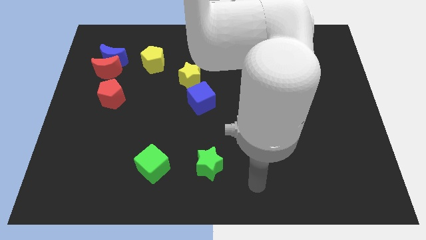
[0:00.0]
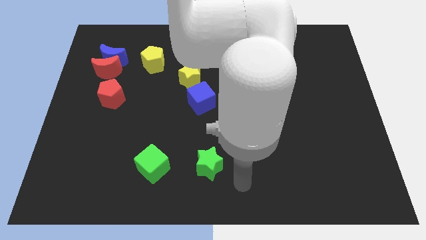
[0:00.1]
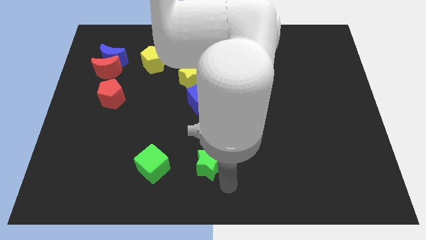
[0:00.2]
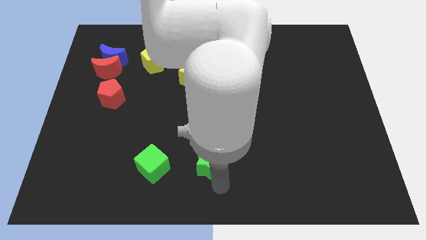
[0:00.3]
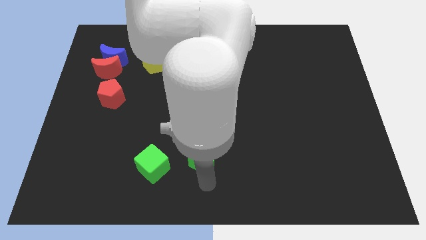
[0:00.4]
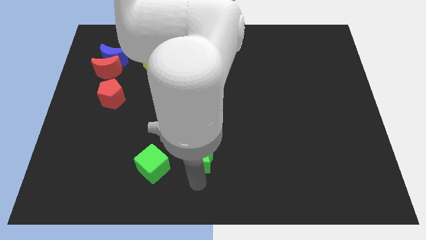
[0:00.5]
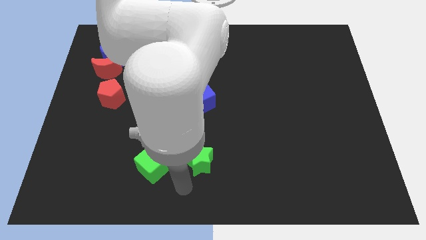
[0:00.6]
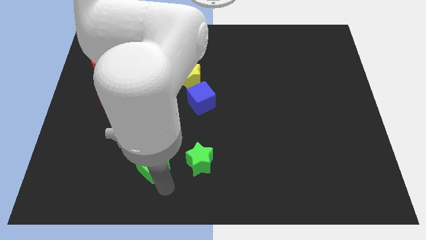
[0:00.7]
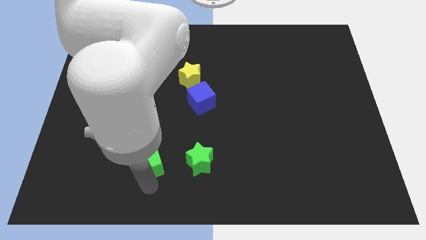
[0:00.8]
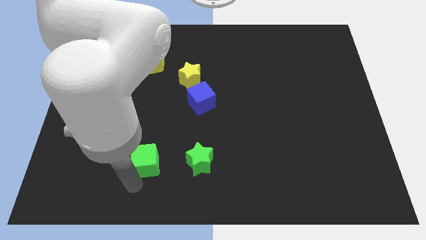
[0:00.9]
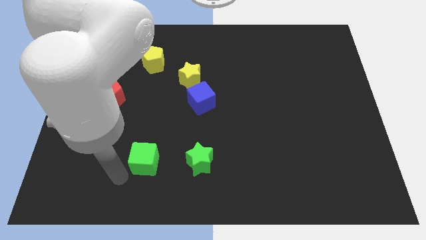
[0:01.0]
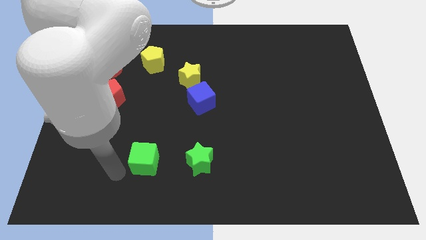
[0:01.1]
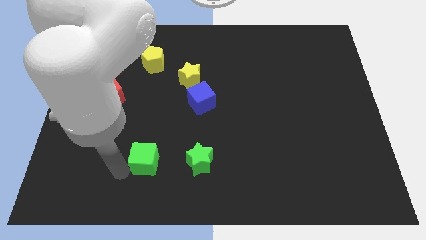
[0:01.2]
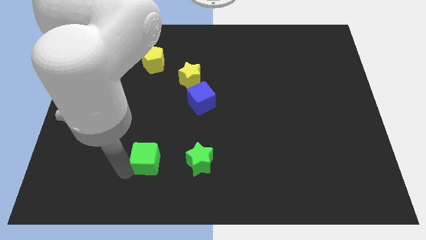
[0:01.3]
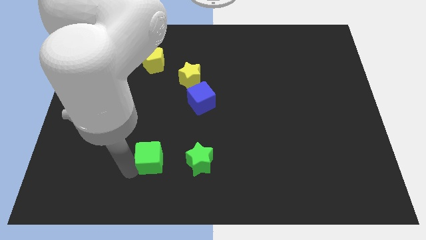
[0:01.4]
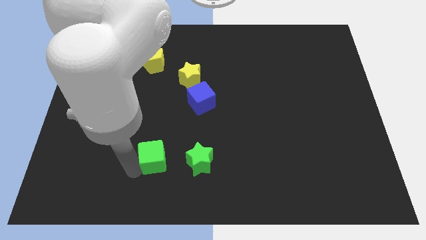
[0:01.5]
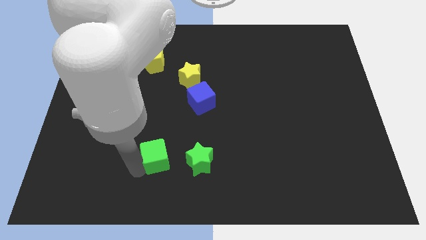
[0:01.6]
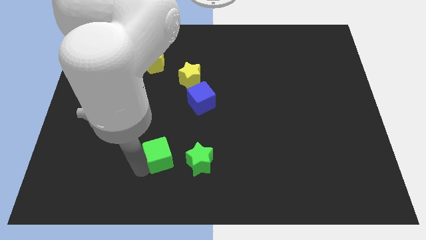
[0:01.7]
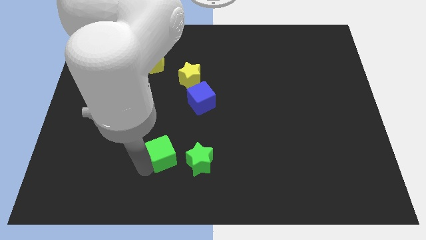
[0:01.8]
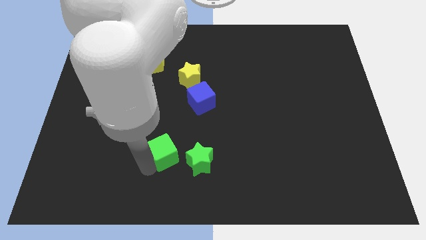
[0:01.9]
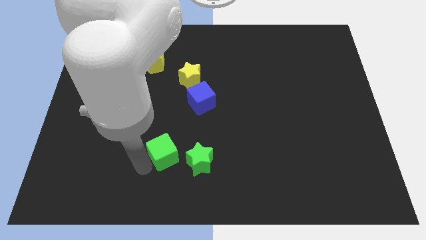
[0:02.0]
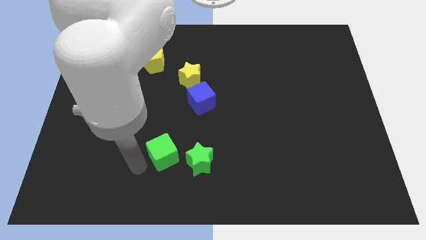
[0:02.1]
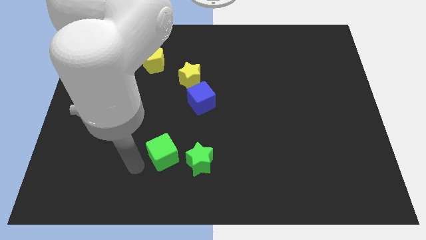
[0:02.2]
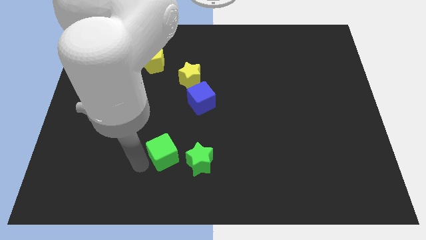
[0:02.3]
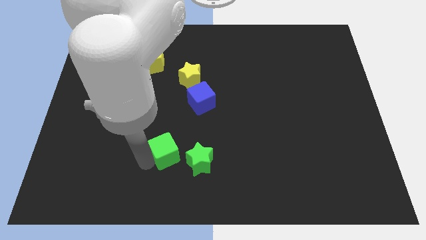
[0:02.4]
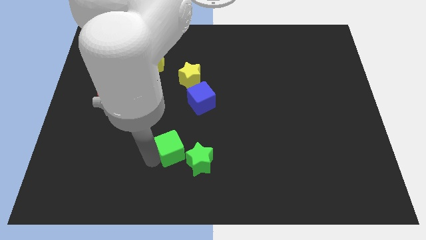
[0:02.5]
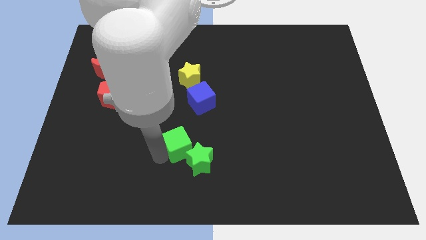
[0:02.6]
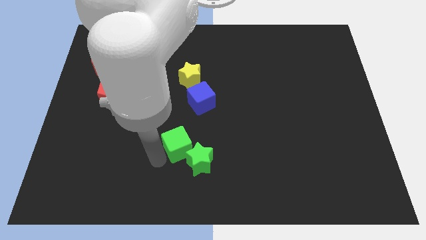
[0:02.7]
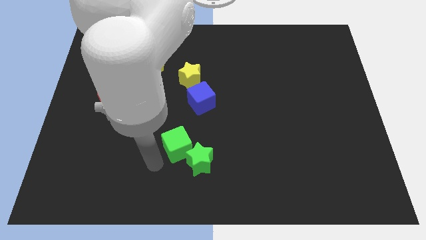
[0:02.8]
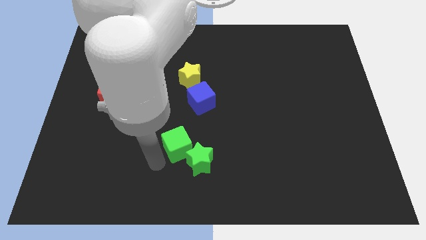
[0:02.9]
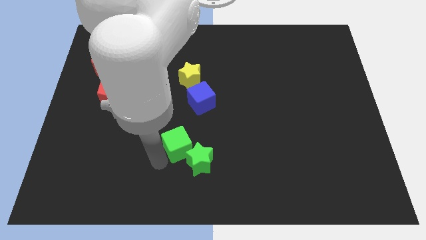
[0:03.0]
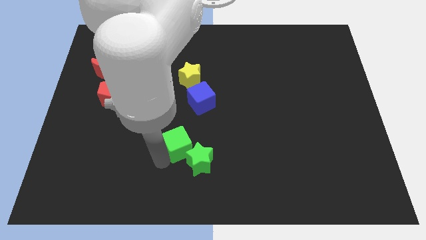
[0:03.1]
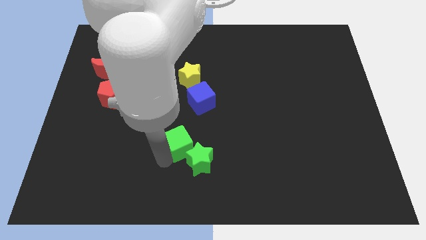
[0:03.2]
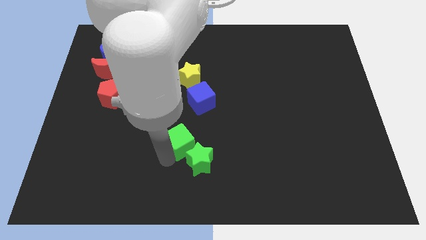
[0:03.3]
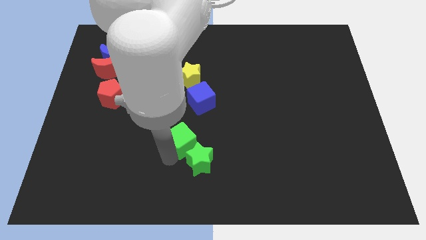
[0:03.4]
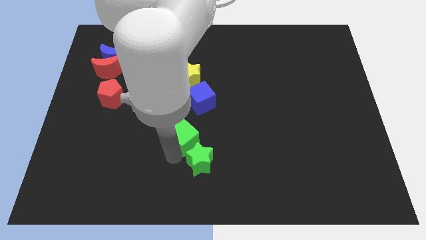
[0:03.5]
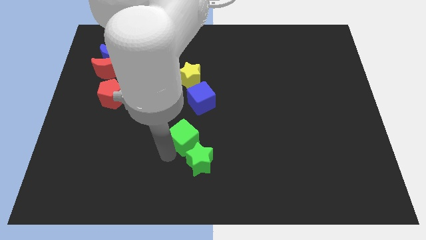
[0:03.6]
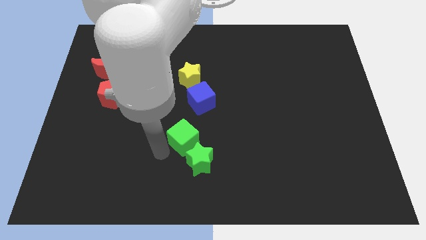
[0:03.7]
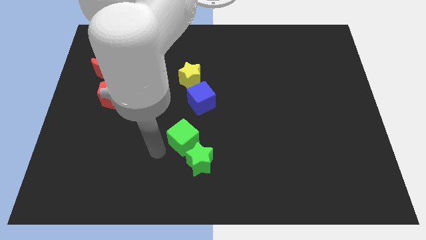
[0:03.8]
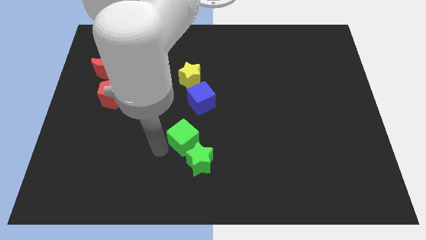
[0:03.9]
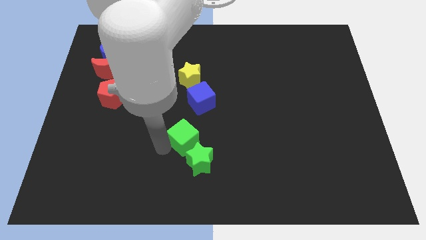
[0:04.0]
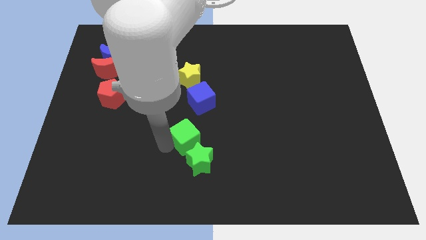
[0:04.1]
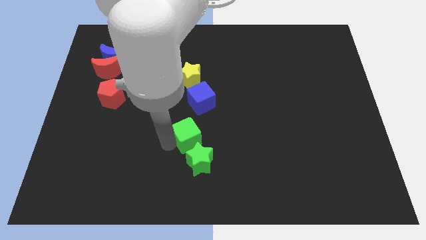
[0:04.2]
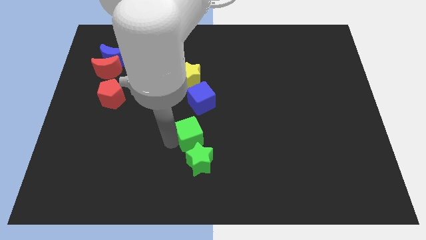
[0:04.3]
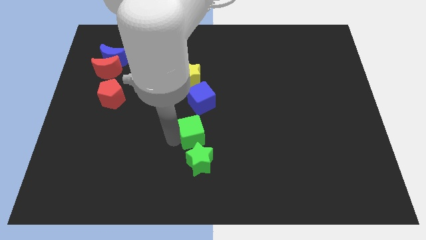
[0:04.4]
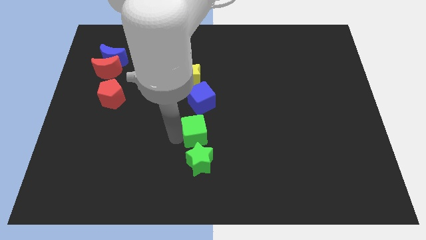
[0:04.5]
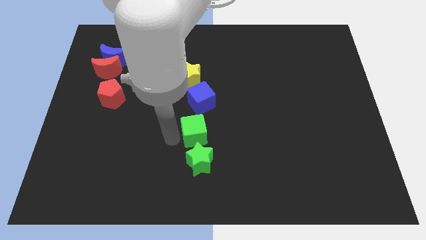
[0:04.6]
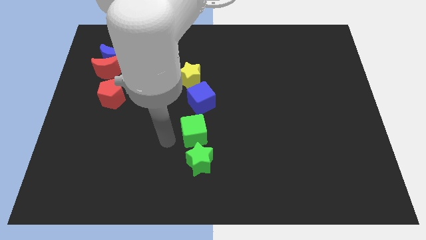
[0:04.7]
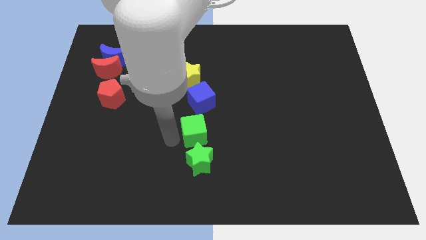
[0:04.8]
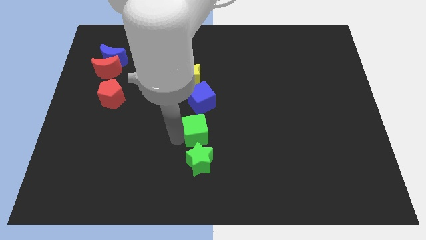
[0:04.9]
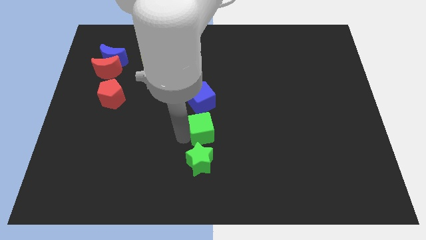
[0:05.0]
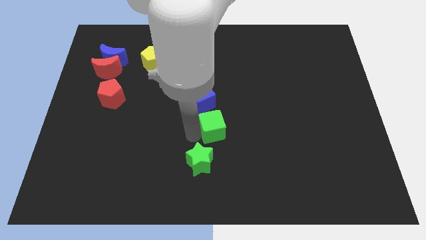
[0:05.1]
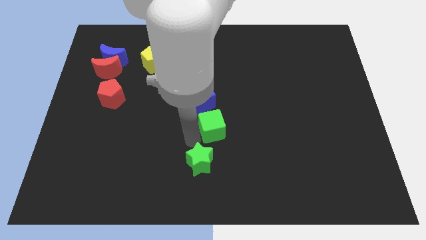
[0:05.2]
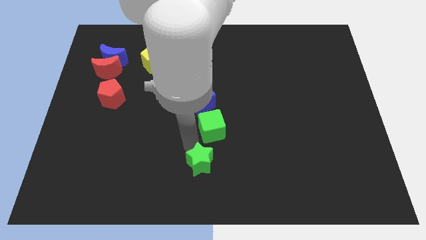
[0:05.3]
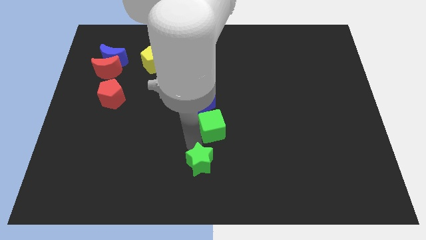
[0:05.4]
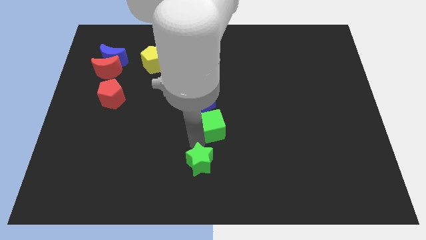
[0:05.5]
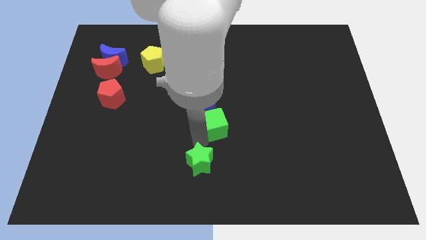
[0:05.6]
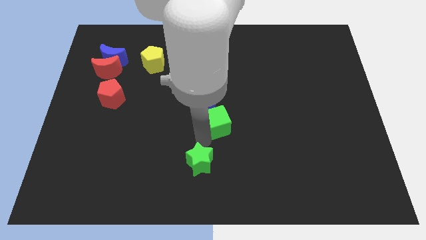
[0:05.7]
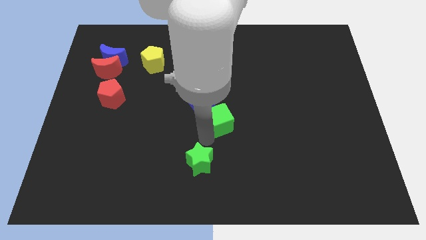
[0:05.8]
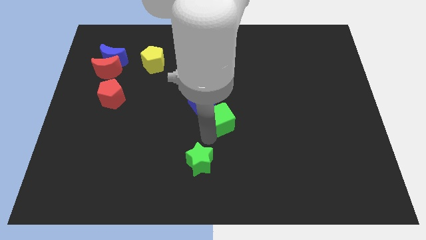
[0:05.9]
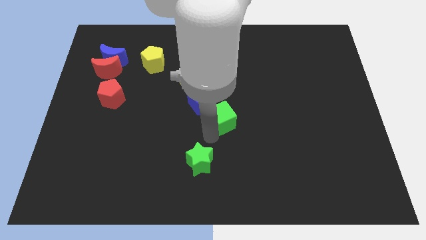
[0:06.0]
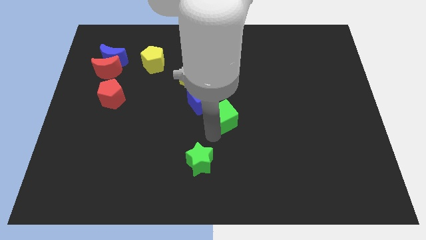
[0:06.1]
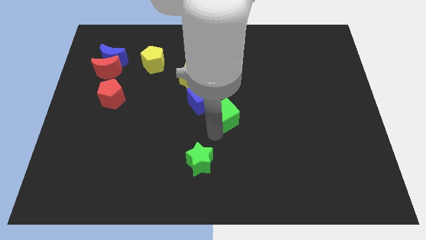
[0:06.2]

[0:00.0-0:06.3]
slide the green cube right of the blue cube

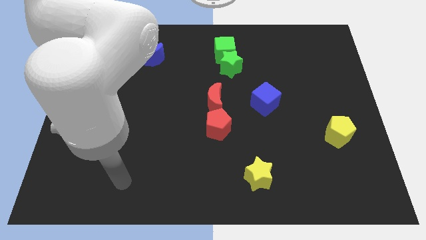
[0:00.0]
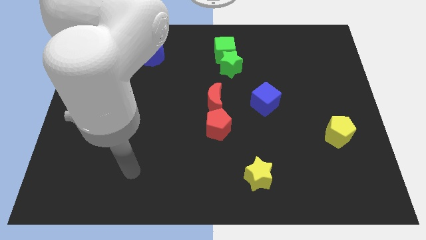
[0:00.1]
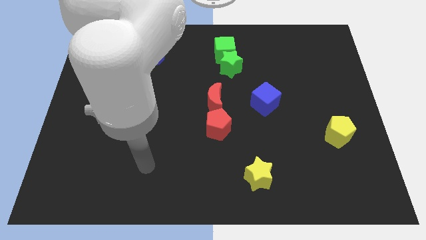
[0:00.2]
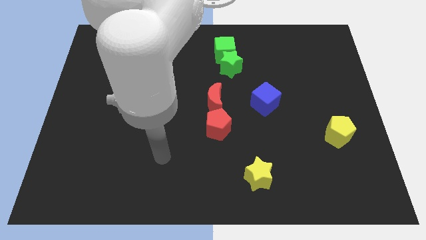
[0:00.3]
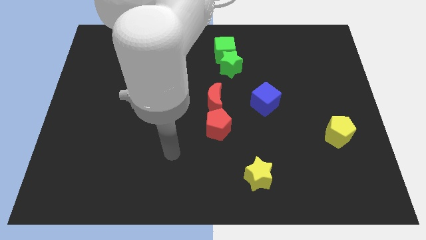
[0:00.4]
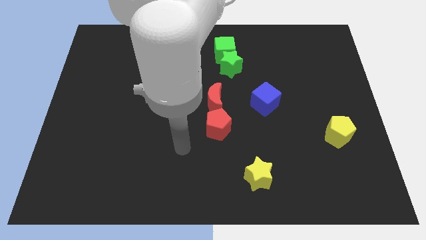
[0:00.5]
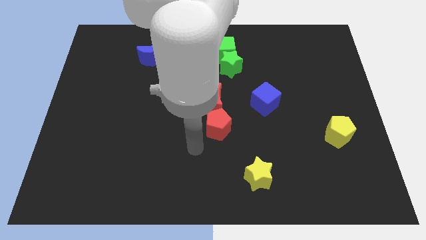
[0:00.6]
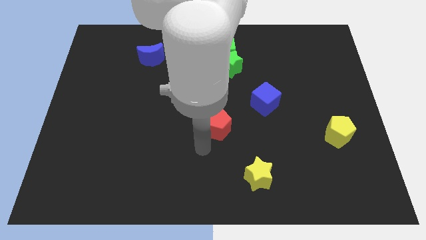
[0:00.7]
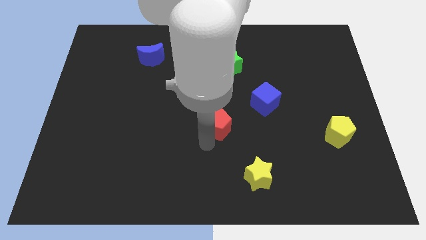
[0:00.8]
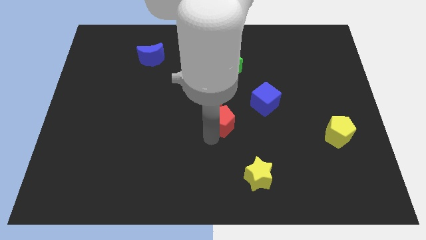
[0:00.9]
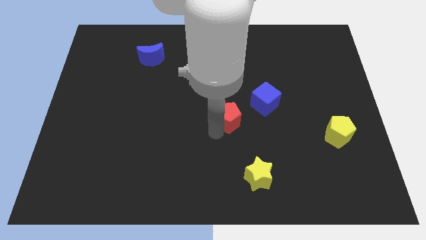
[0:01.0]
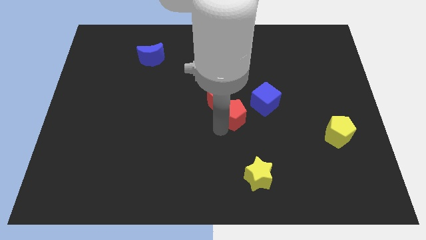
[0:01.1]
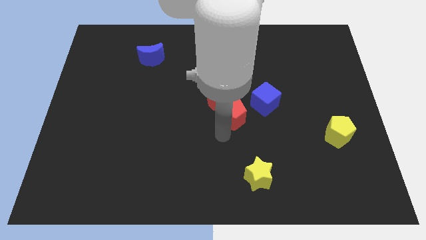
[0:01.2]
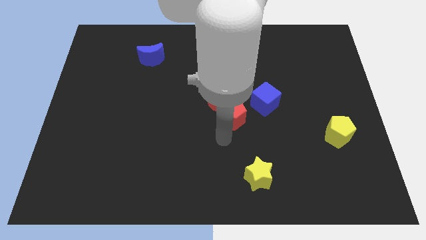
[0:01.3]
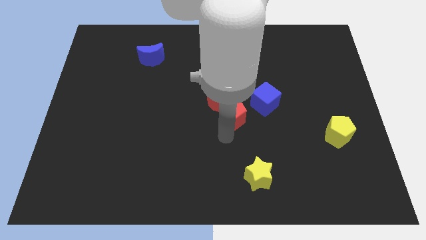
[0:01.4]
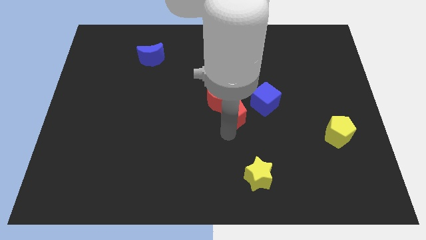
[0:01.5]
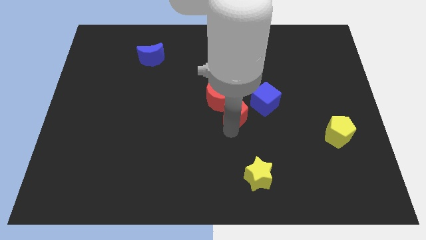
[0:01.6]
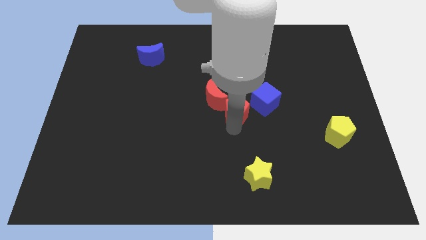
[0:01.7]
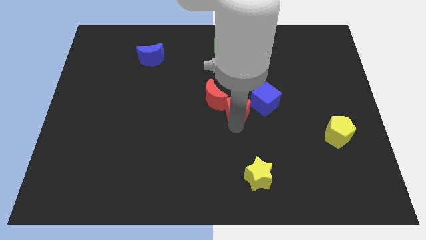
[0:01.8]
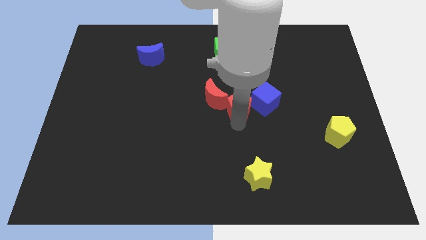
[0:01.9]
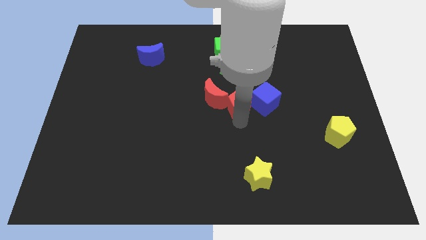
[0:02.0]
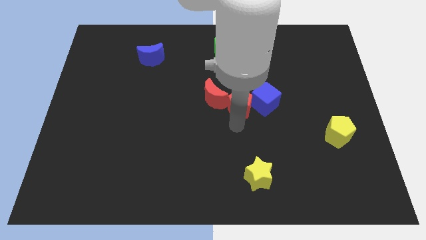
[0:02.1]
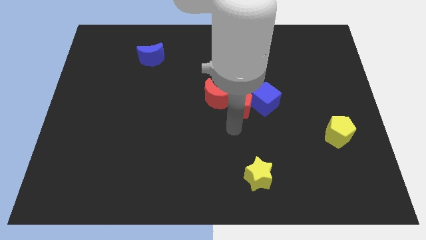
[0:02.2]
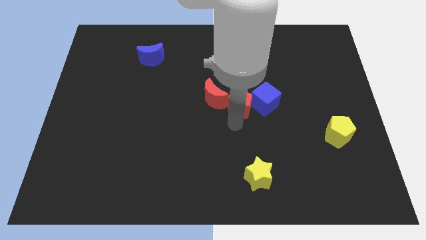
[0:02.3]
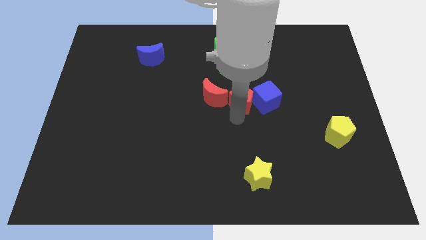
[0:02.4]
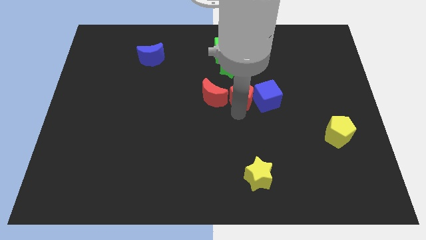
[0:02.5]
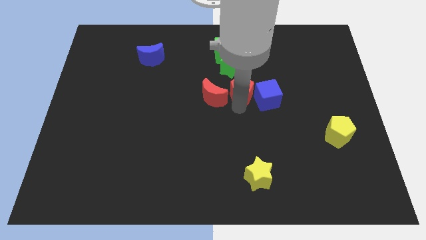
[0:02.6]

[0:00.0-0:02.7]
move the red pentagon diagonally down and to the right of the green star
